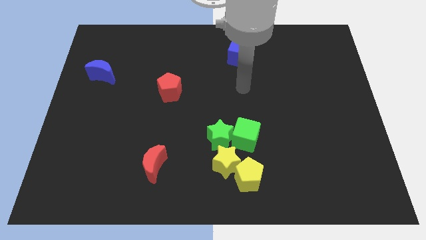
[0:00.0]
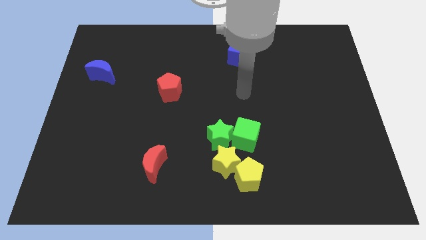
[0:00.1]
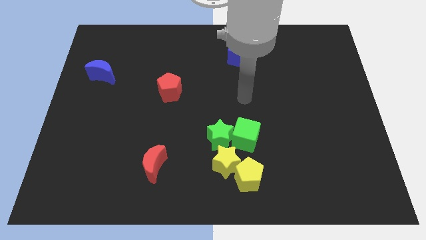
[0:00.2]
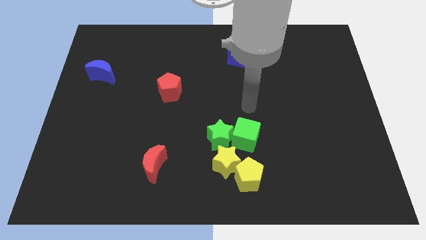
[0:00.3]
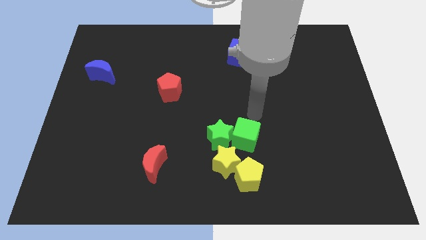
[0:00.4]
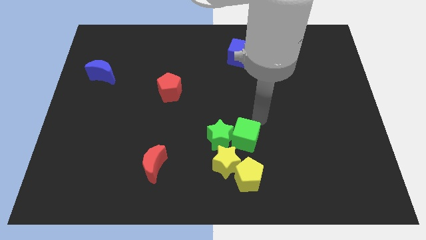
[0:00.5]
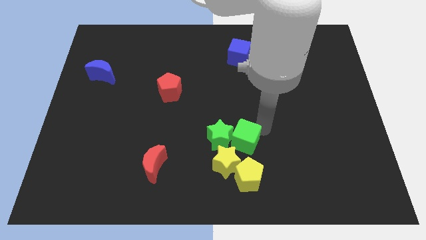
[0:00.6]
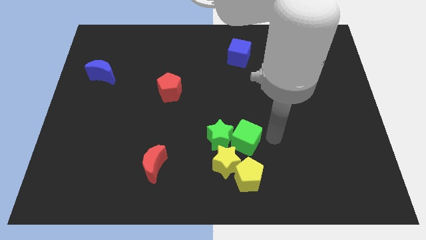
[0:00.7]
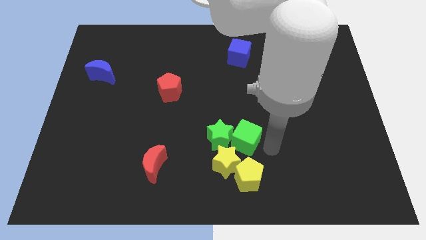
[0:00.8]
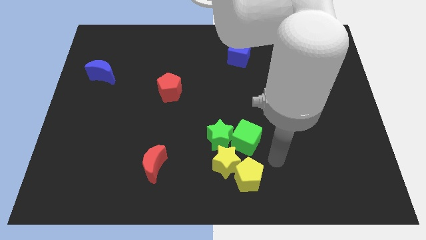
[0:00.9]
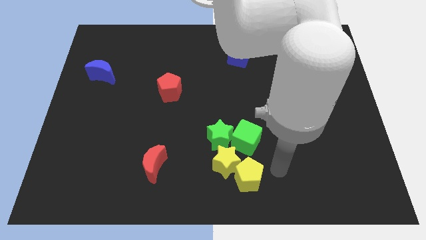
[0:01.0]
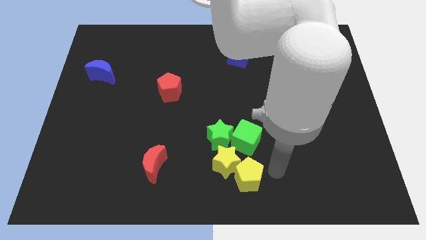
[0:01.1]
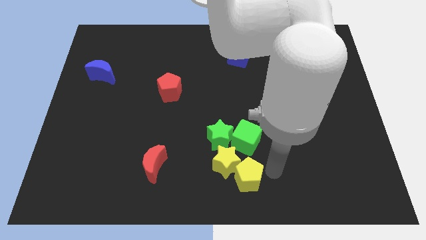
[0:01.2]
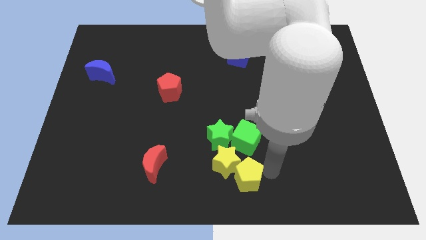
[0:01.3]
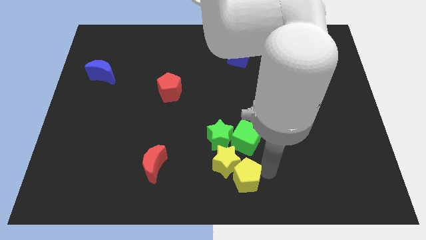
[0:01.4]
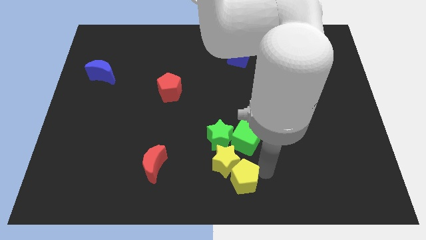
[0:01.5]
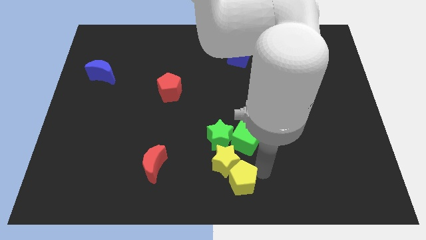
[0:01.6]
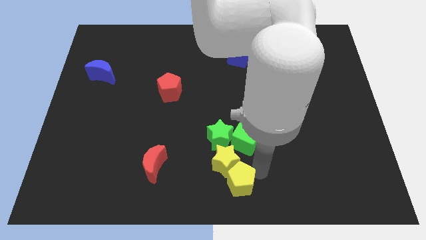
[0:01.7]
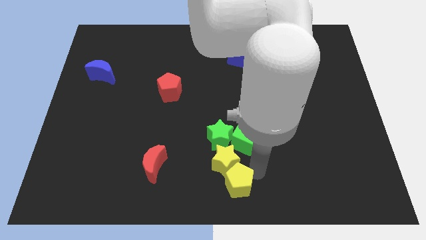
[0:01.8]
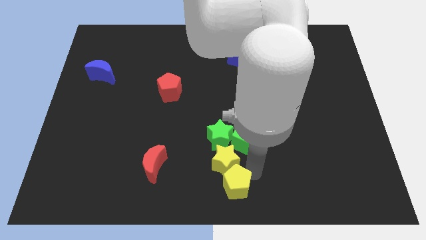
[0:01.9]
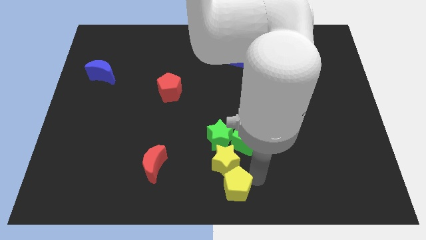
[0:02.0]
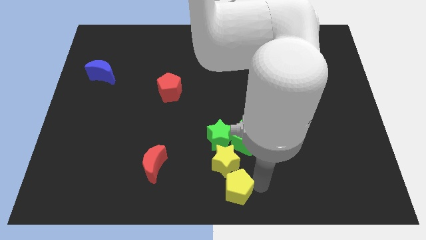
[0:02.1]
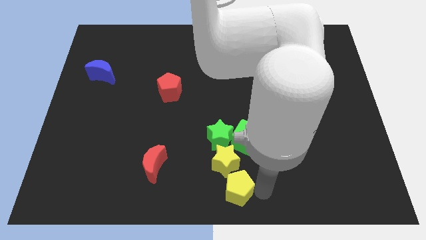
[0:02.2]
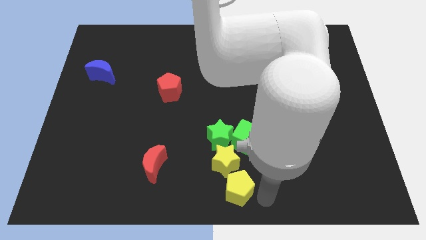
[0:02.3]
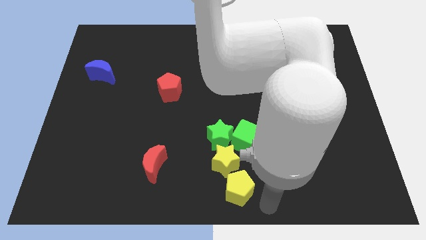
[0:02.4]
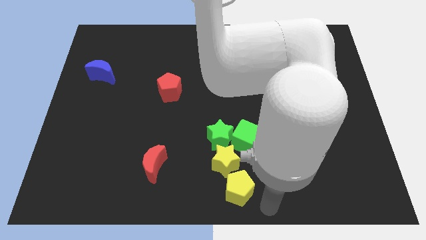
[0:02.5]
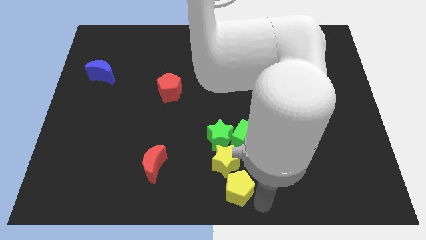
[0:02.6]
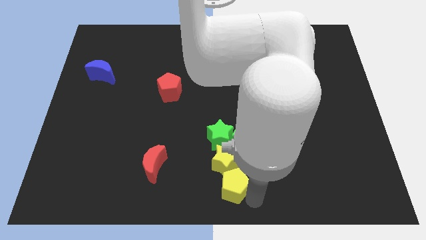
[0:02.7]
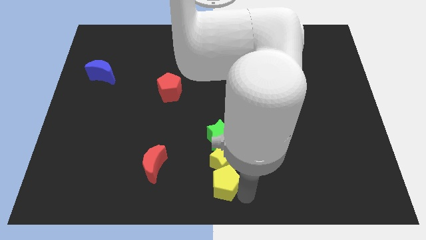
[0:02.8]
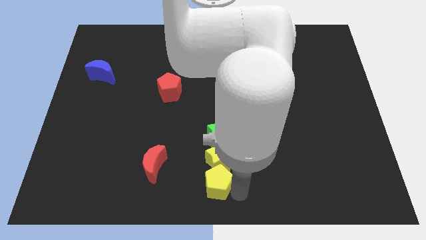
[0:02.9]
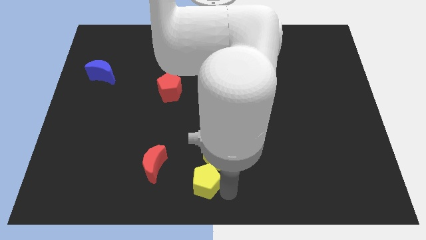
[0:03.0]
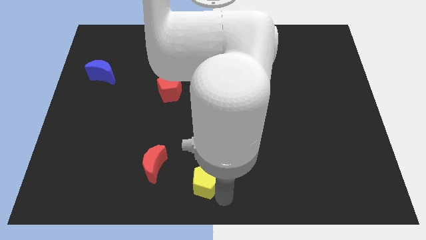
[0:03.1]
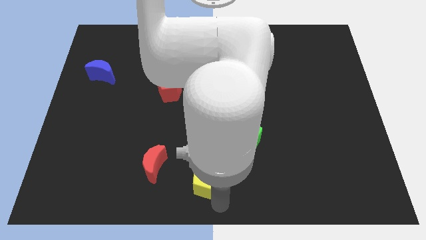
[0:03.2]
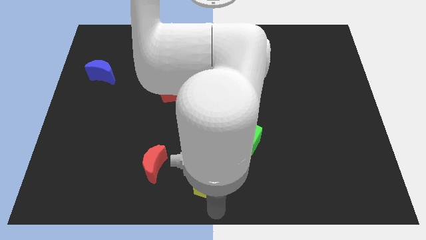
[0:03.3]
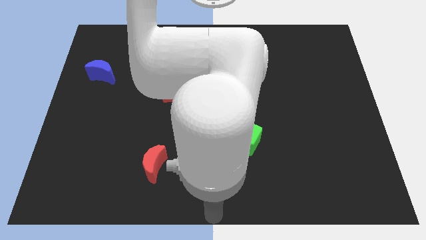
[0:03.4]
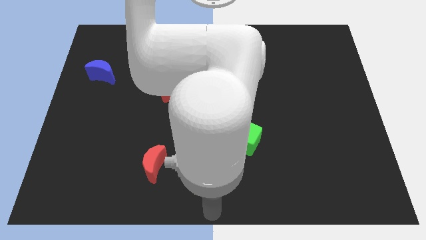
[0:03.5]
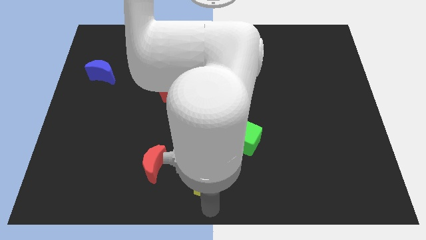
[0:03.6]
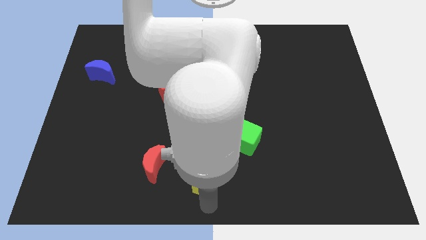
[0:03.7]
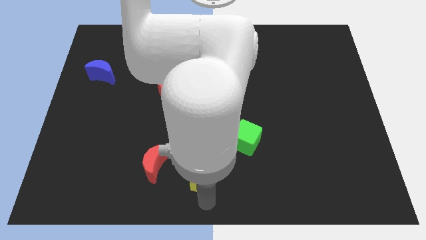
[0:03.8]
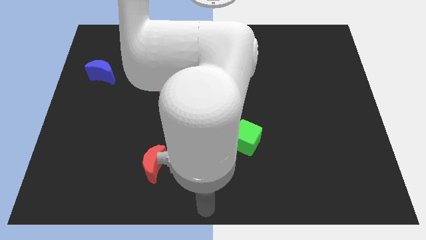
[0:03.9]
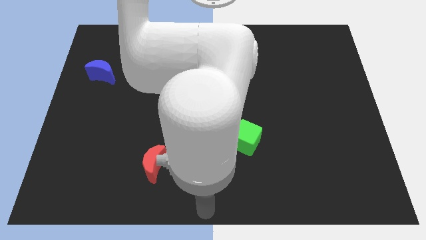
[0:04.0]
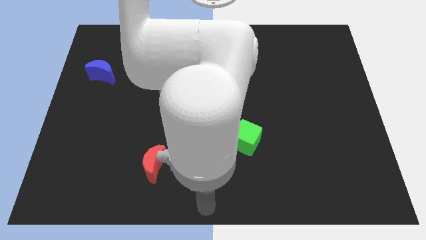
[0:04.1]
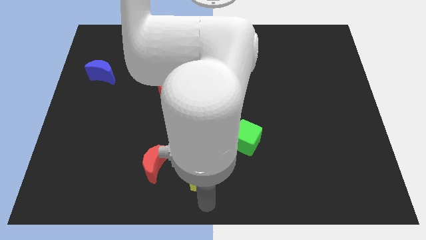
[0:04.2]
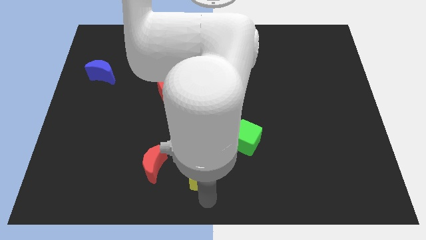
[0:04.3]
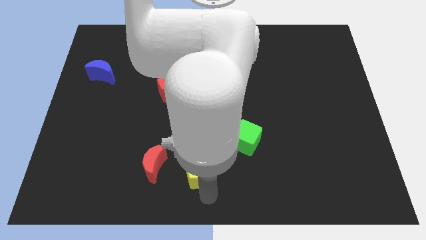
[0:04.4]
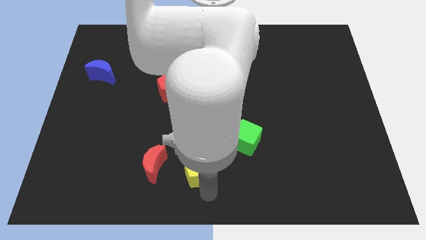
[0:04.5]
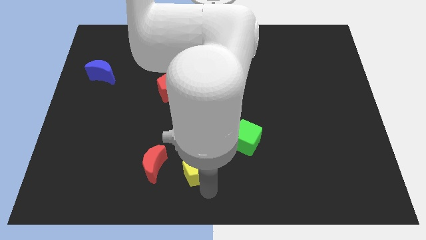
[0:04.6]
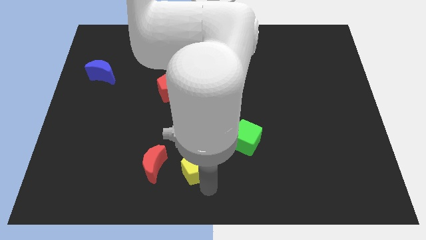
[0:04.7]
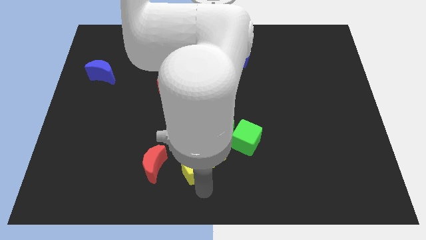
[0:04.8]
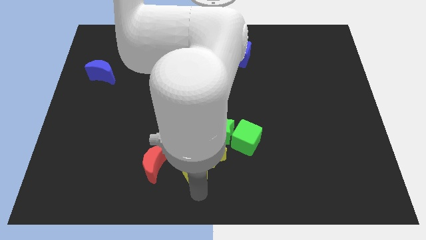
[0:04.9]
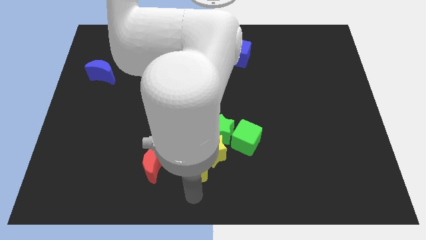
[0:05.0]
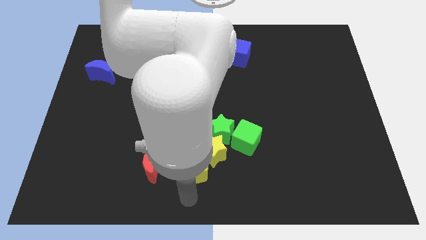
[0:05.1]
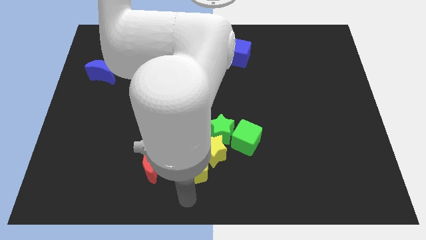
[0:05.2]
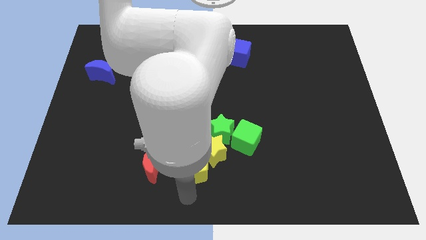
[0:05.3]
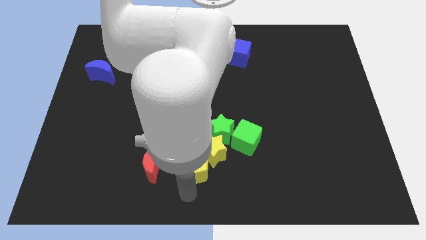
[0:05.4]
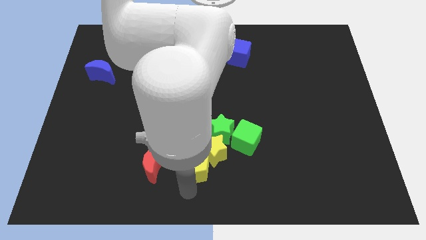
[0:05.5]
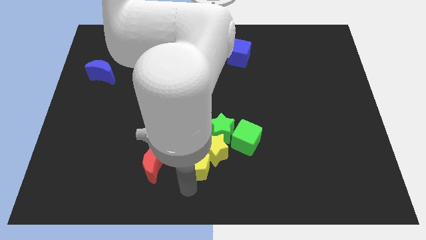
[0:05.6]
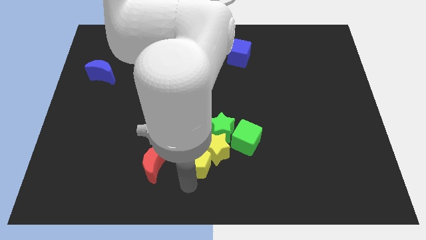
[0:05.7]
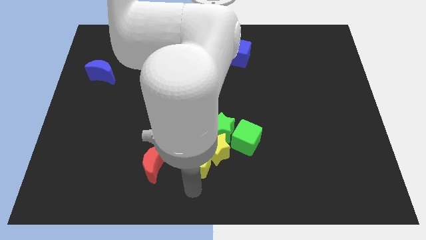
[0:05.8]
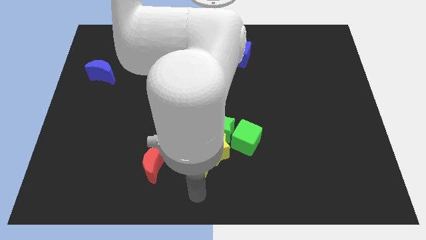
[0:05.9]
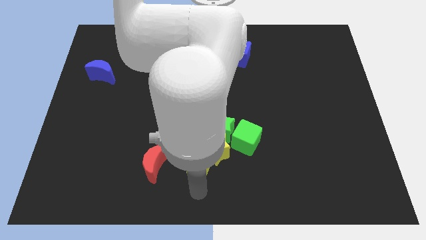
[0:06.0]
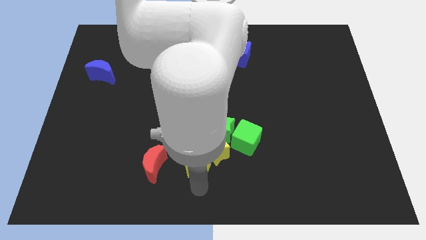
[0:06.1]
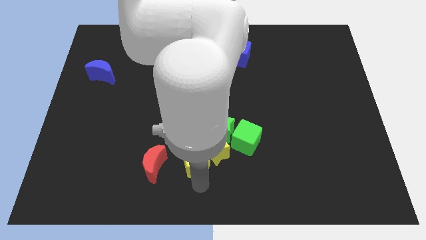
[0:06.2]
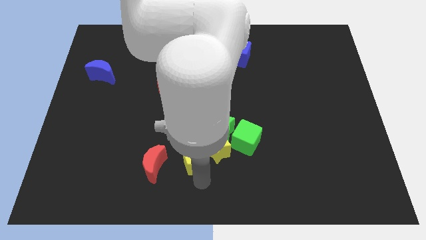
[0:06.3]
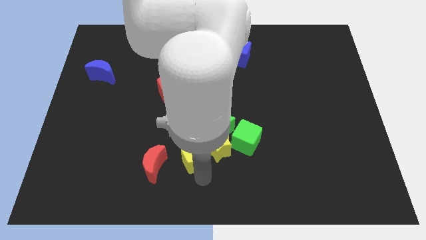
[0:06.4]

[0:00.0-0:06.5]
put the yellow pentagon just left of the green cube

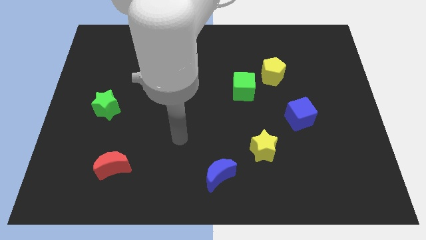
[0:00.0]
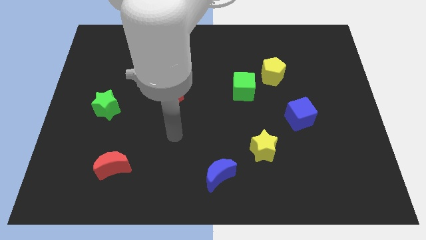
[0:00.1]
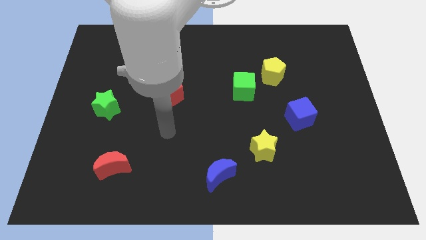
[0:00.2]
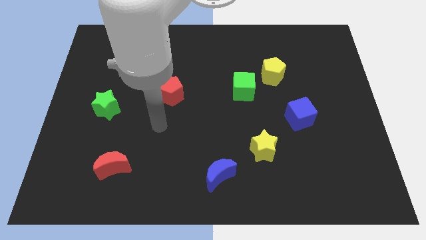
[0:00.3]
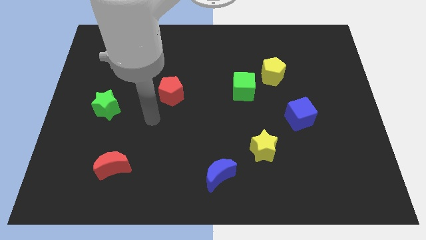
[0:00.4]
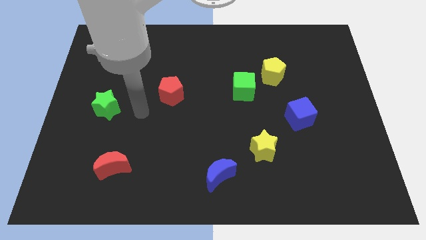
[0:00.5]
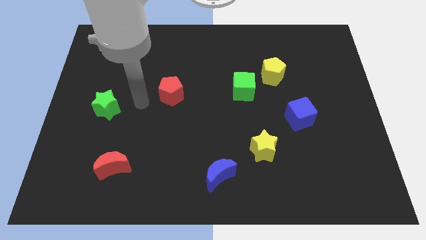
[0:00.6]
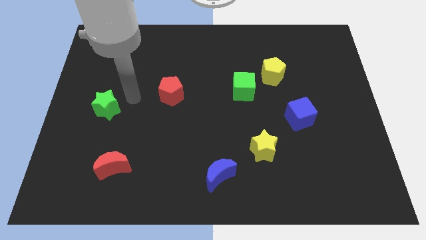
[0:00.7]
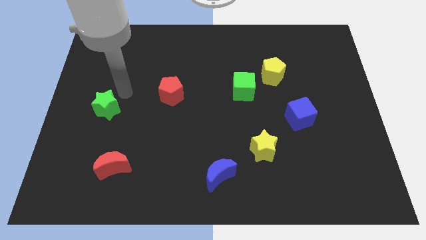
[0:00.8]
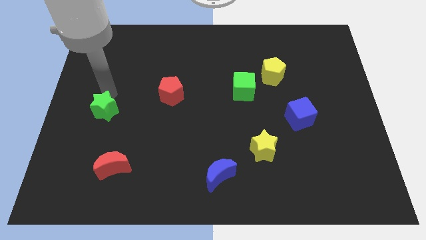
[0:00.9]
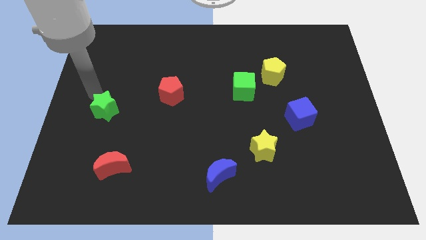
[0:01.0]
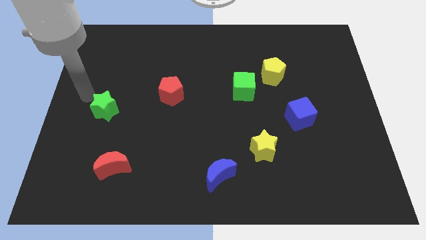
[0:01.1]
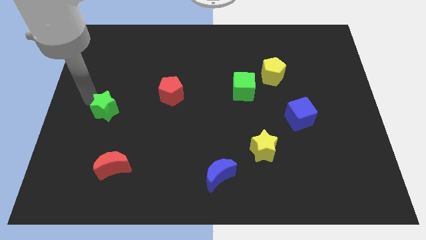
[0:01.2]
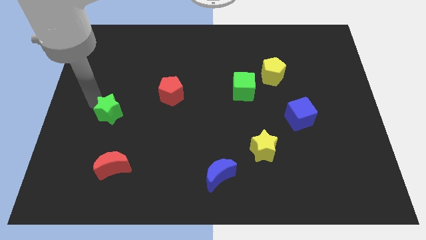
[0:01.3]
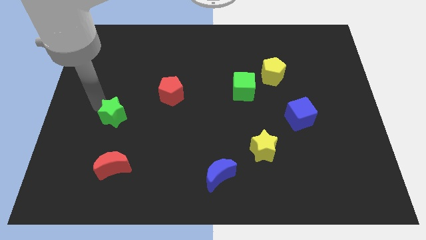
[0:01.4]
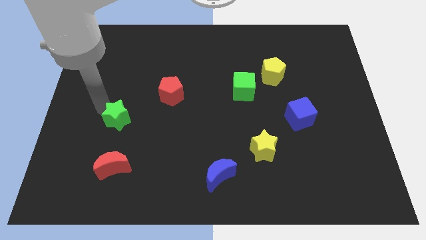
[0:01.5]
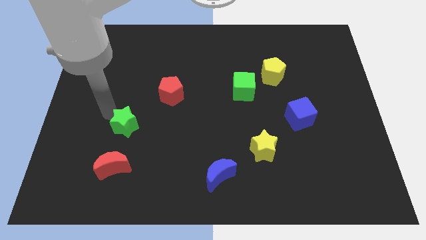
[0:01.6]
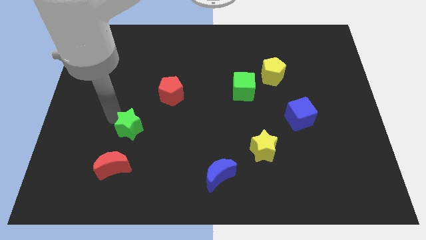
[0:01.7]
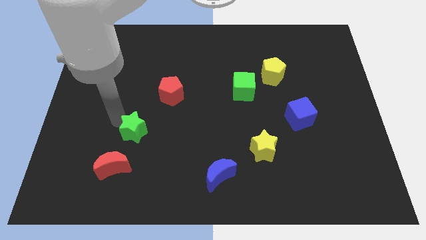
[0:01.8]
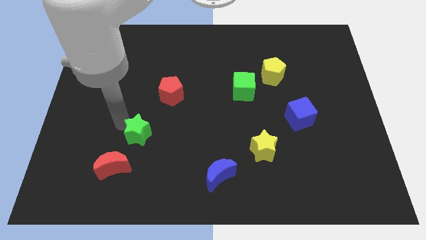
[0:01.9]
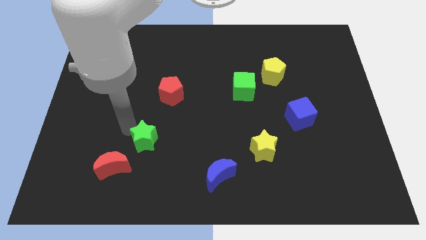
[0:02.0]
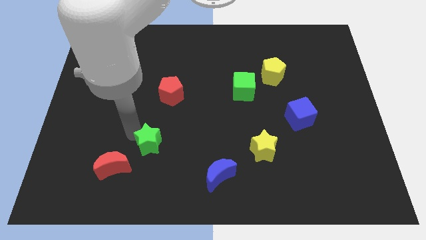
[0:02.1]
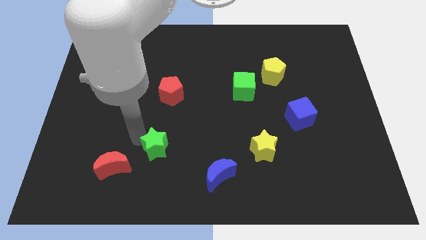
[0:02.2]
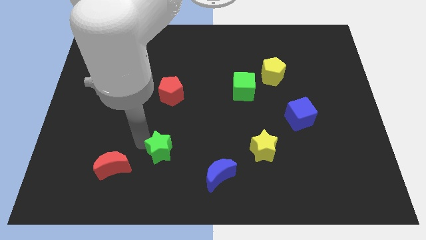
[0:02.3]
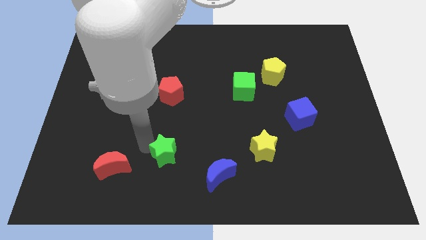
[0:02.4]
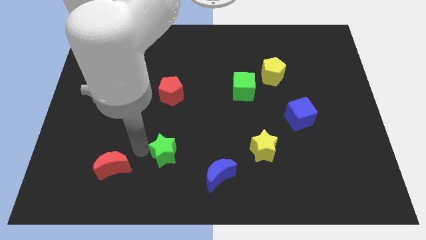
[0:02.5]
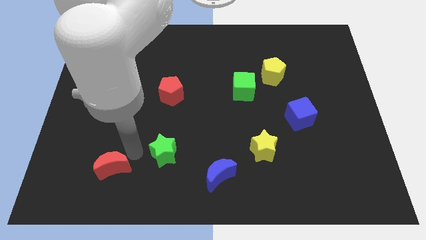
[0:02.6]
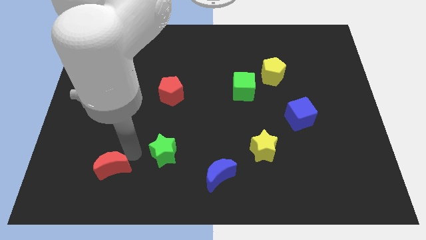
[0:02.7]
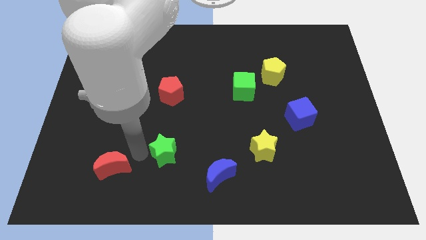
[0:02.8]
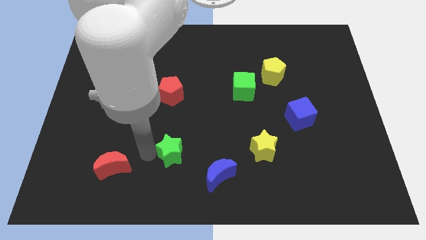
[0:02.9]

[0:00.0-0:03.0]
slide the green star to the top left of the blue moon
